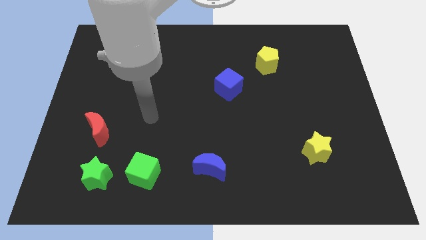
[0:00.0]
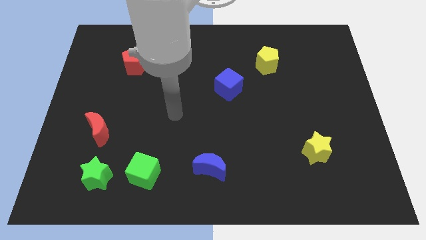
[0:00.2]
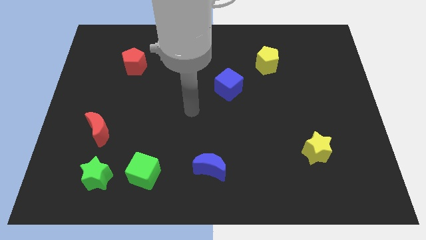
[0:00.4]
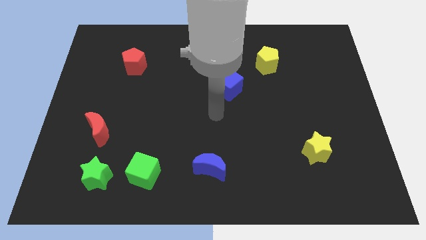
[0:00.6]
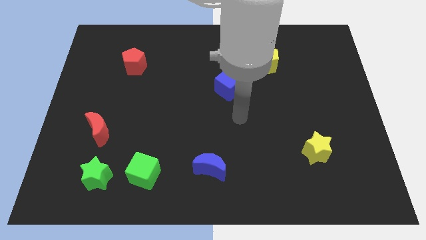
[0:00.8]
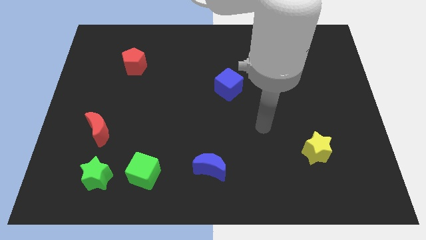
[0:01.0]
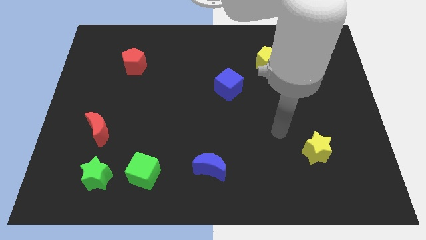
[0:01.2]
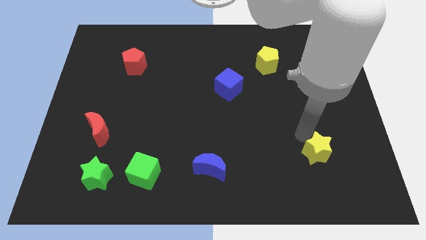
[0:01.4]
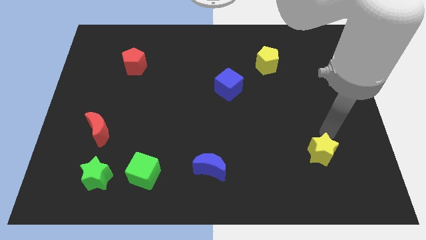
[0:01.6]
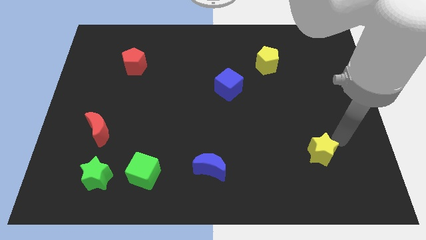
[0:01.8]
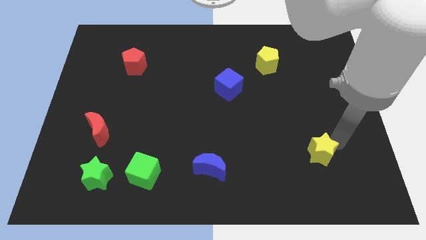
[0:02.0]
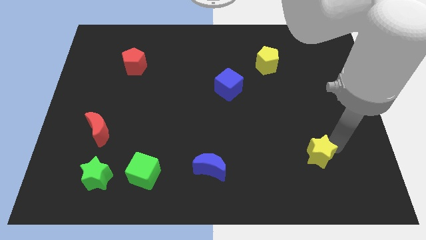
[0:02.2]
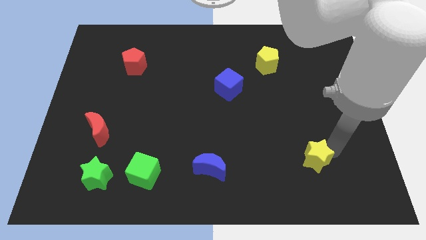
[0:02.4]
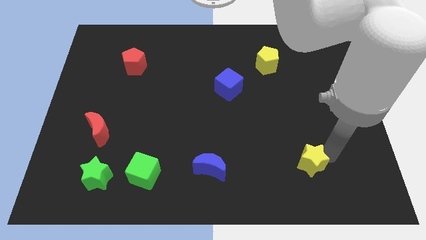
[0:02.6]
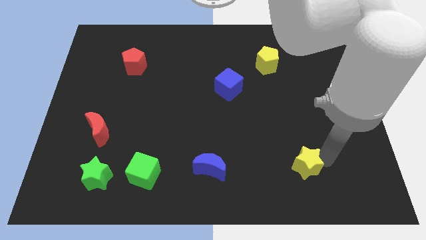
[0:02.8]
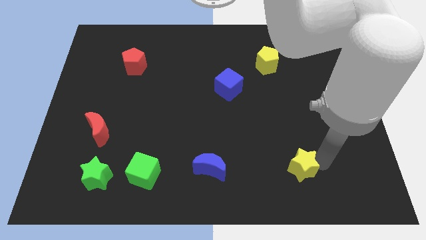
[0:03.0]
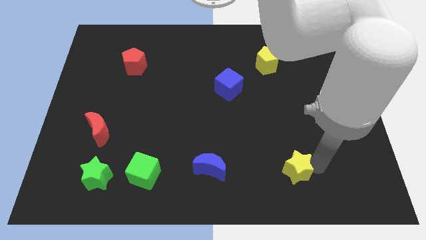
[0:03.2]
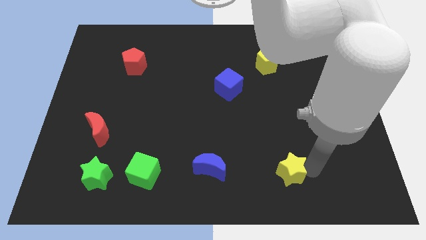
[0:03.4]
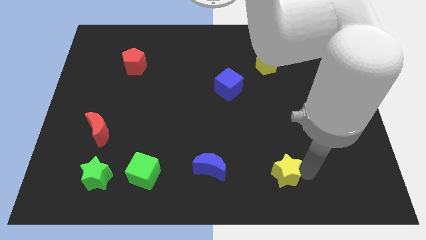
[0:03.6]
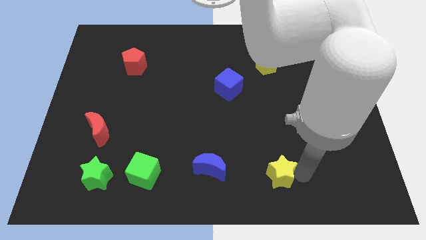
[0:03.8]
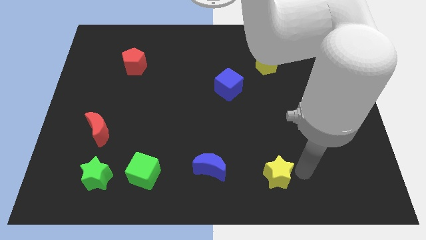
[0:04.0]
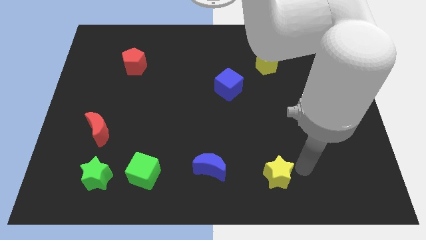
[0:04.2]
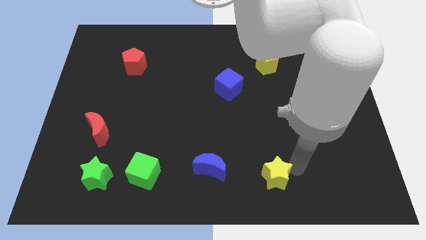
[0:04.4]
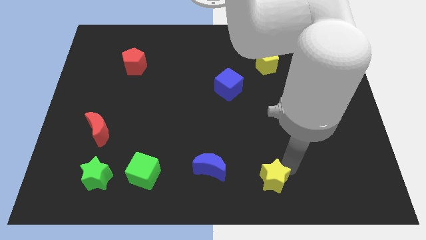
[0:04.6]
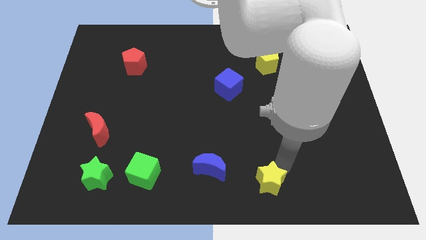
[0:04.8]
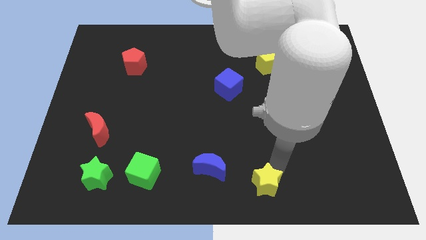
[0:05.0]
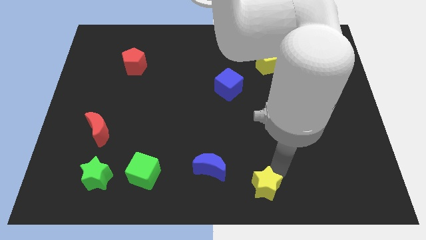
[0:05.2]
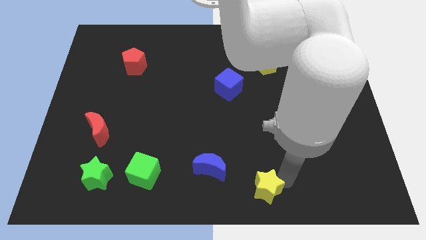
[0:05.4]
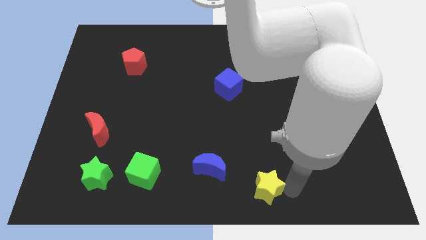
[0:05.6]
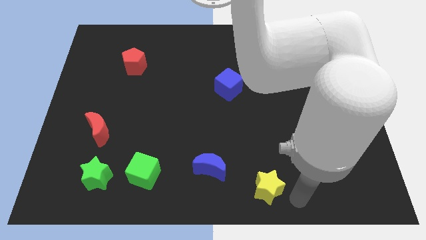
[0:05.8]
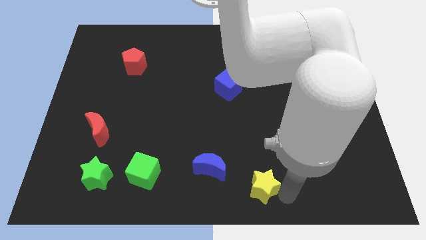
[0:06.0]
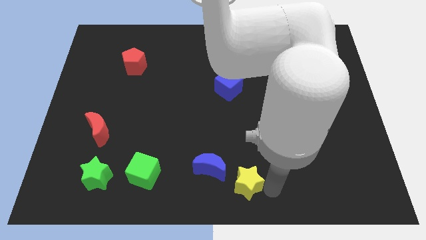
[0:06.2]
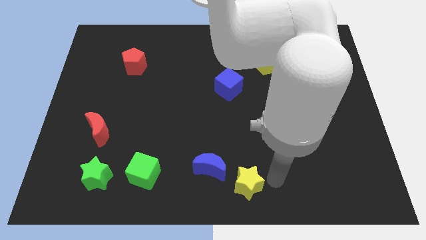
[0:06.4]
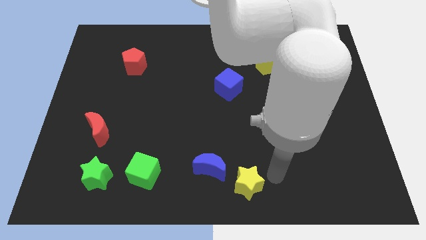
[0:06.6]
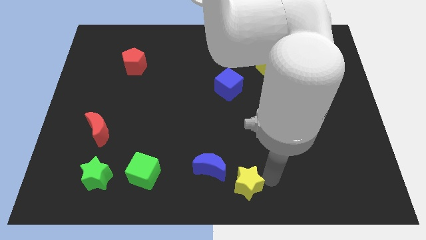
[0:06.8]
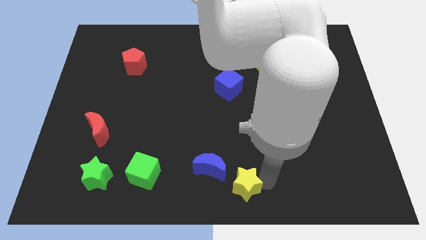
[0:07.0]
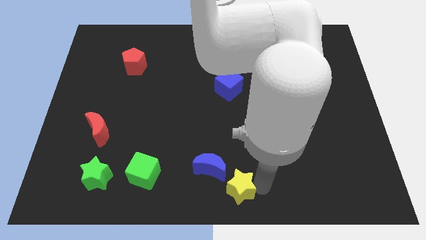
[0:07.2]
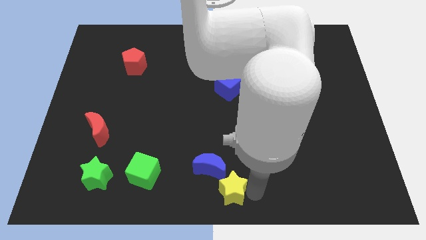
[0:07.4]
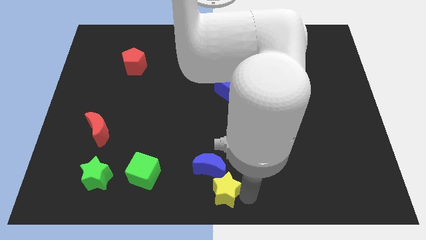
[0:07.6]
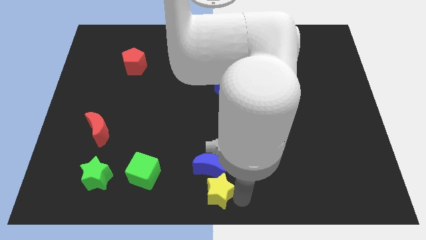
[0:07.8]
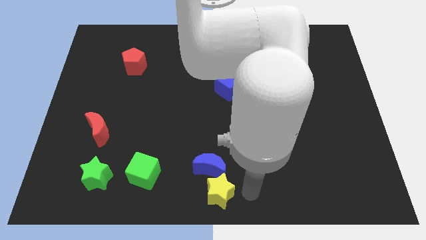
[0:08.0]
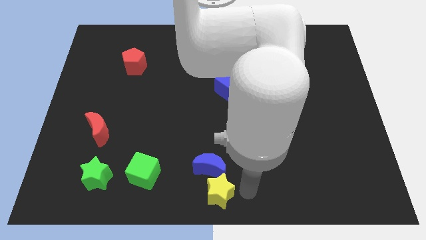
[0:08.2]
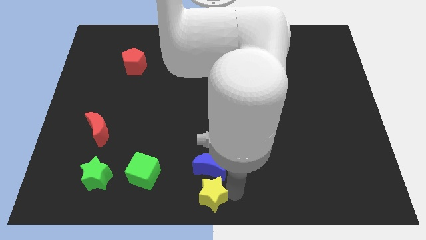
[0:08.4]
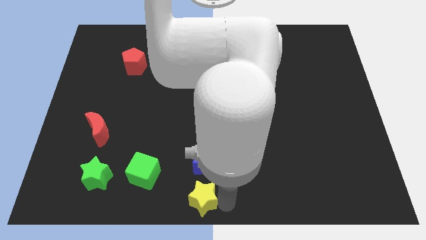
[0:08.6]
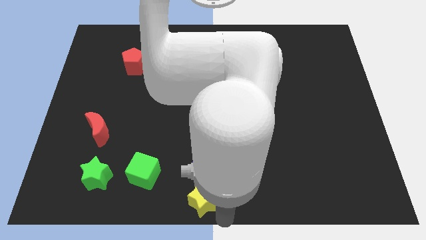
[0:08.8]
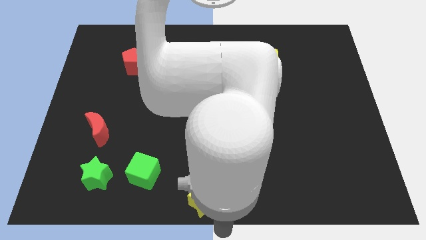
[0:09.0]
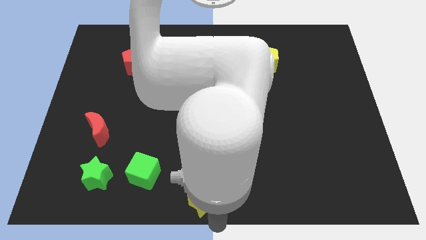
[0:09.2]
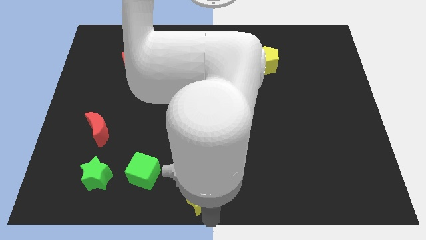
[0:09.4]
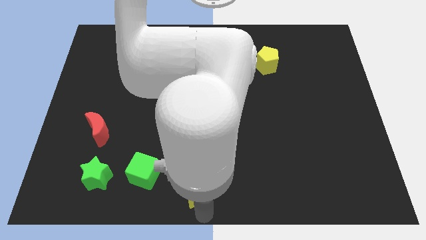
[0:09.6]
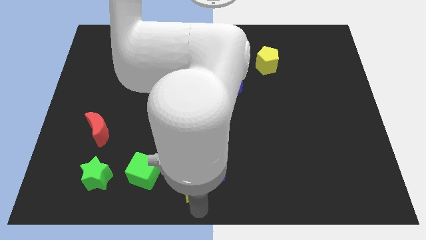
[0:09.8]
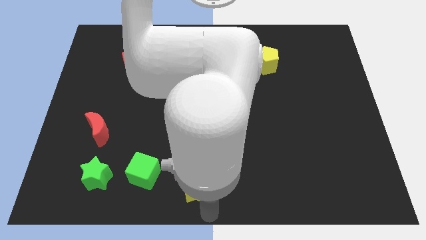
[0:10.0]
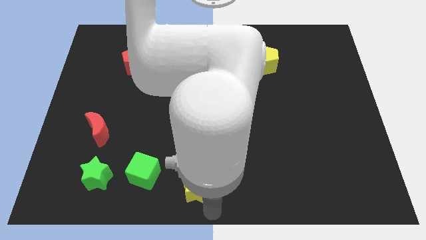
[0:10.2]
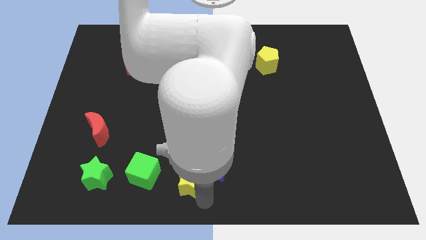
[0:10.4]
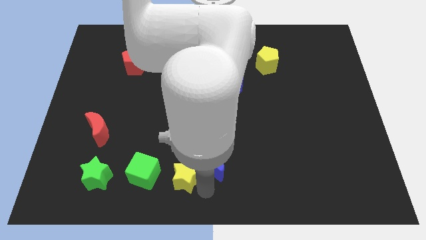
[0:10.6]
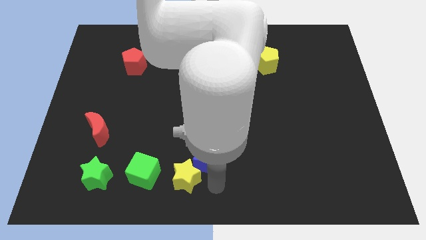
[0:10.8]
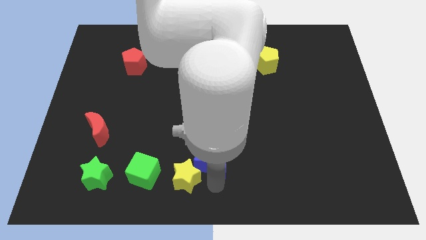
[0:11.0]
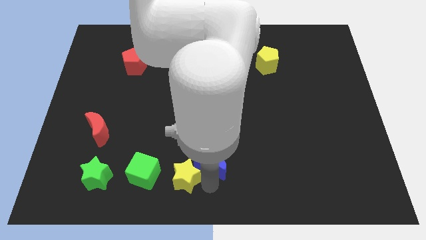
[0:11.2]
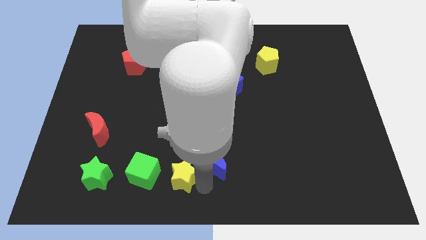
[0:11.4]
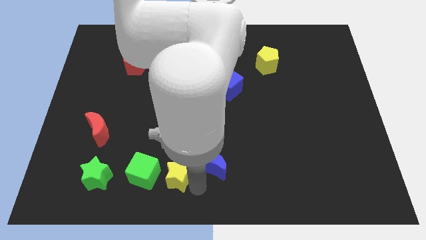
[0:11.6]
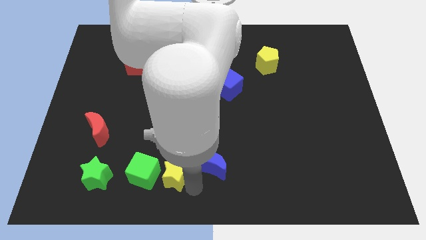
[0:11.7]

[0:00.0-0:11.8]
push the yellow star to the right of the green star

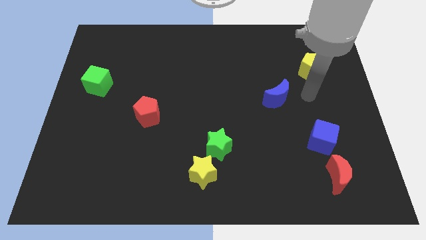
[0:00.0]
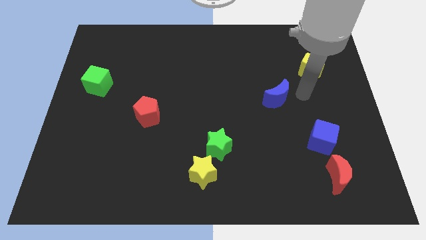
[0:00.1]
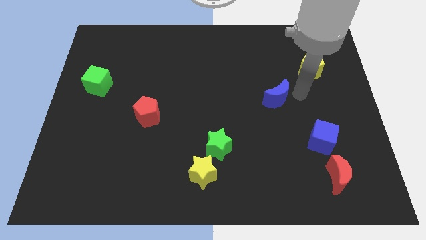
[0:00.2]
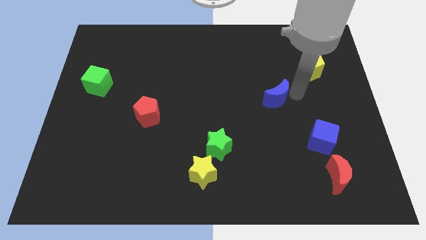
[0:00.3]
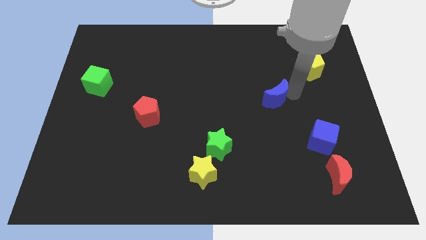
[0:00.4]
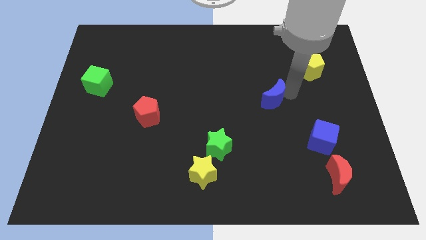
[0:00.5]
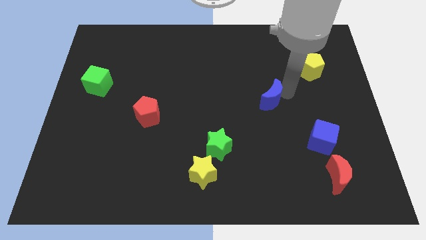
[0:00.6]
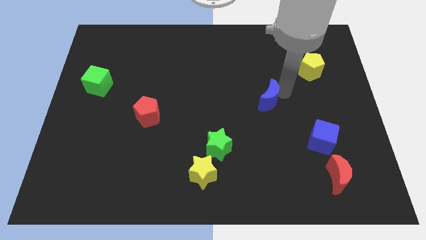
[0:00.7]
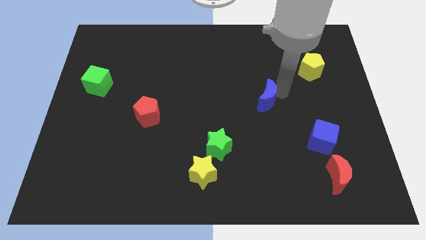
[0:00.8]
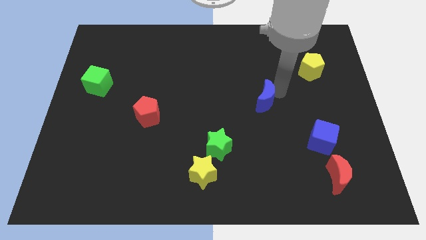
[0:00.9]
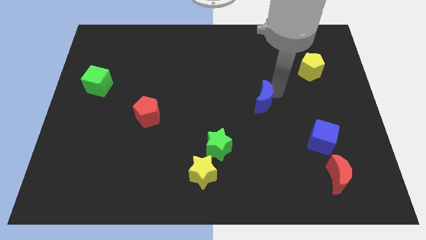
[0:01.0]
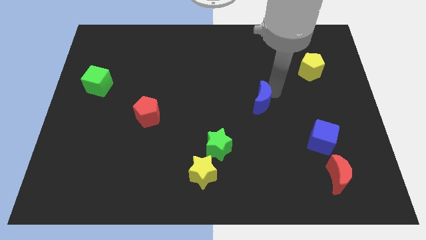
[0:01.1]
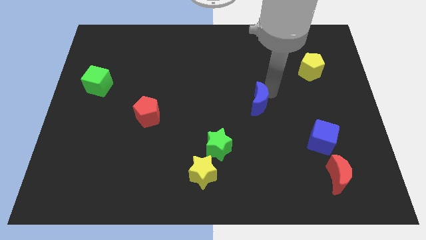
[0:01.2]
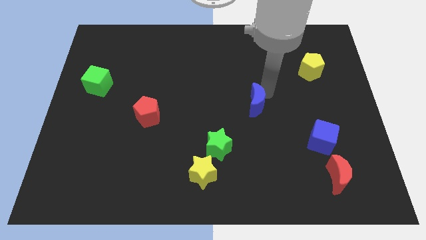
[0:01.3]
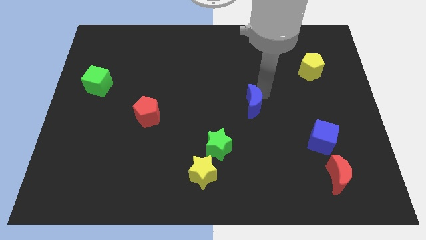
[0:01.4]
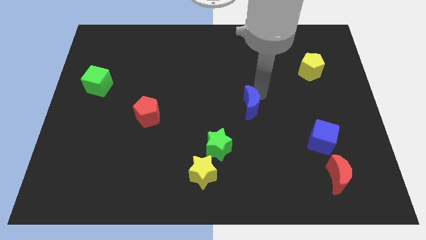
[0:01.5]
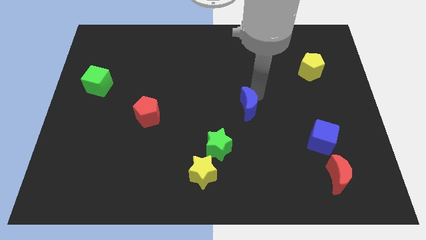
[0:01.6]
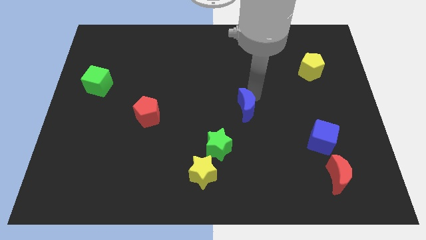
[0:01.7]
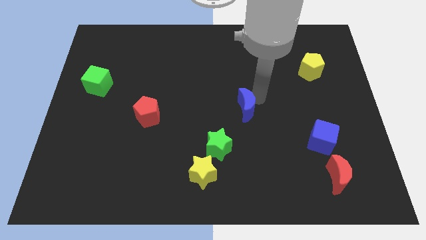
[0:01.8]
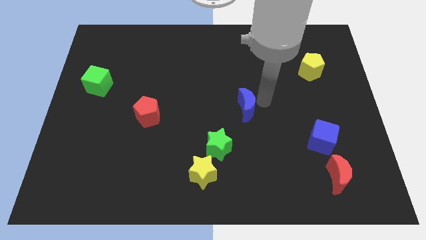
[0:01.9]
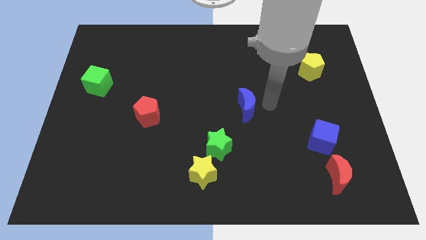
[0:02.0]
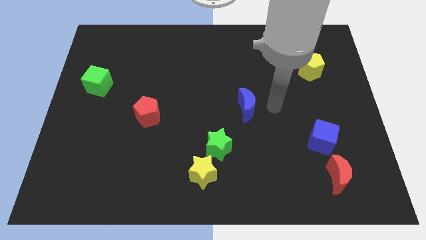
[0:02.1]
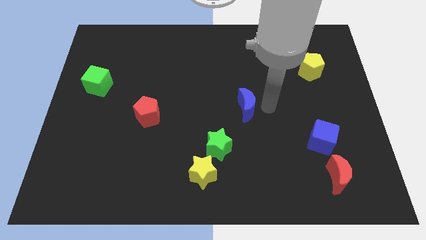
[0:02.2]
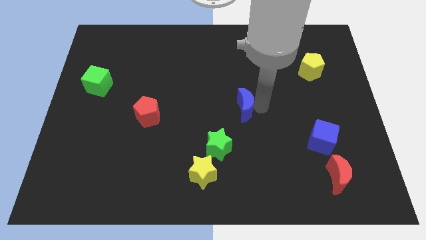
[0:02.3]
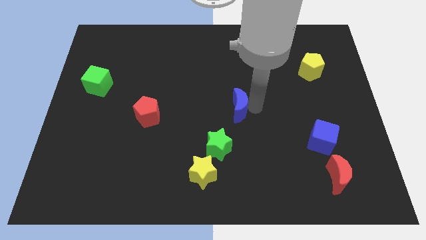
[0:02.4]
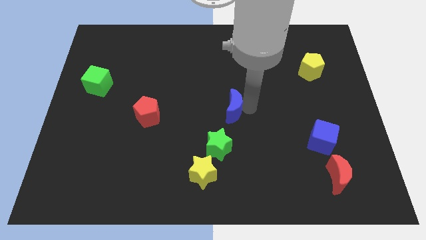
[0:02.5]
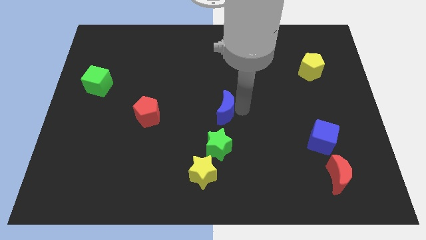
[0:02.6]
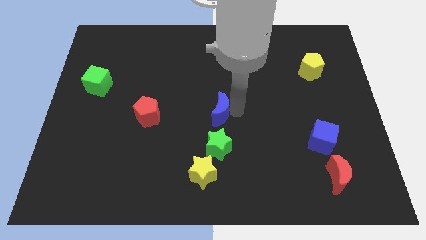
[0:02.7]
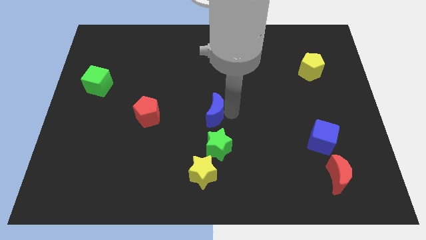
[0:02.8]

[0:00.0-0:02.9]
put the blue moon right of the red pentagon
